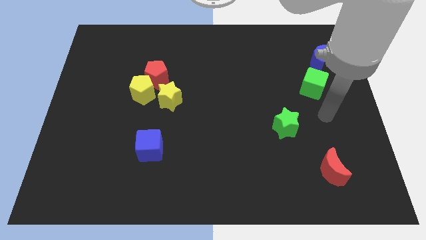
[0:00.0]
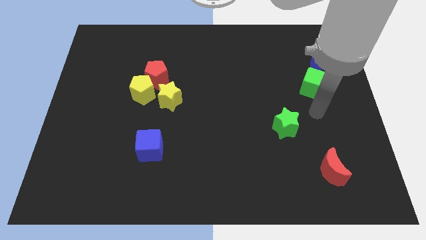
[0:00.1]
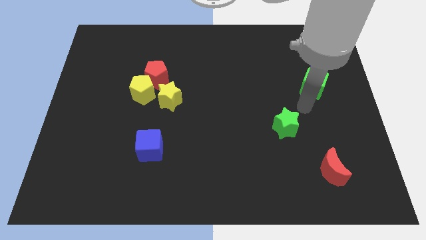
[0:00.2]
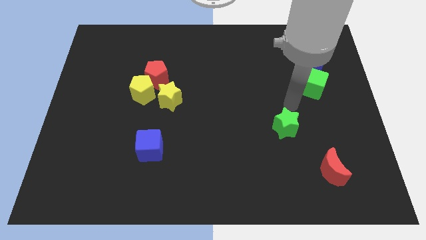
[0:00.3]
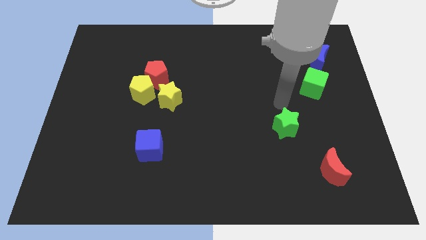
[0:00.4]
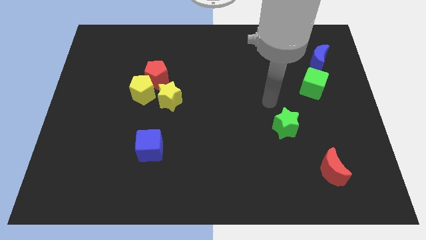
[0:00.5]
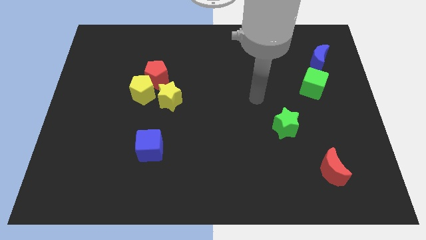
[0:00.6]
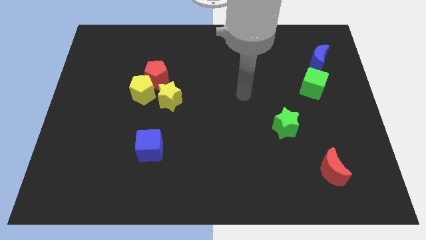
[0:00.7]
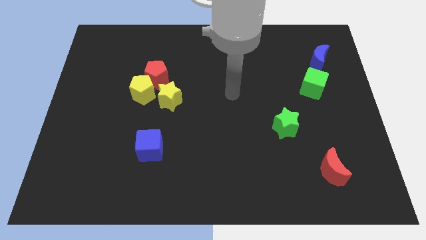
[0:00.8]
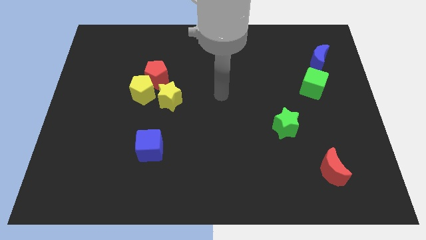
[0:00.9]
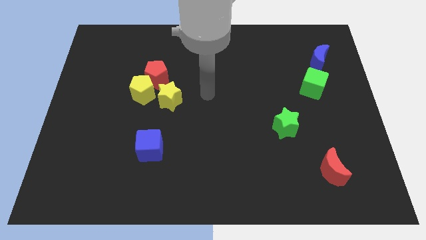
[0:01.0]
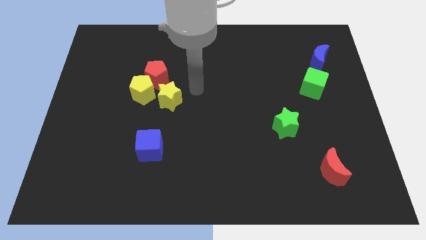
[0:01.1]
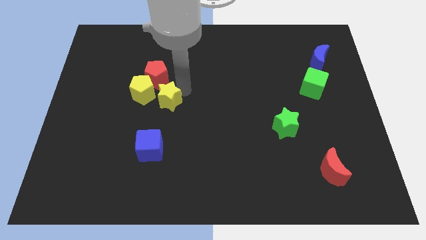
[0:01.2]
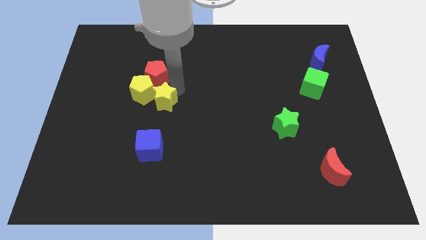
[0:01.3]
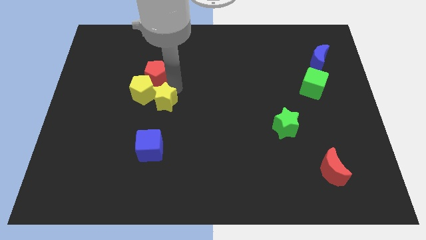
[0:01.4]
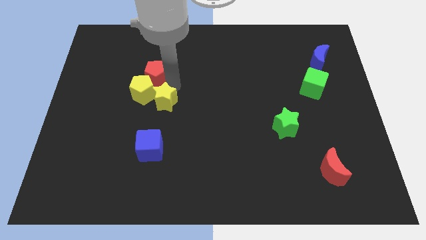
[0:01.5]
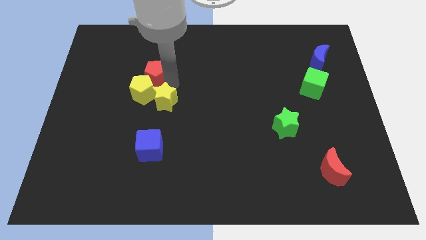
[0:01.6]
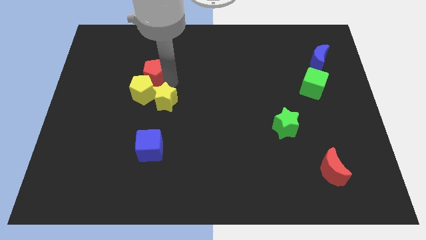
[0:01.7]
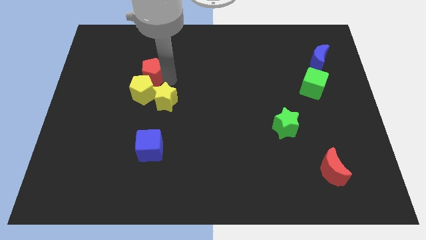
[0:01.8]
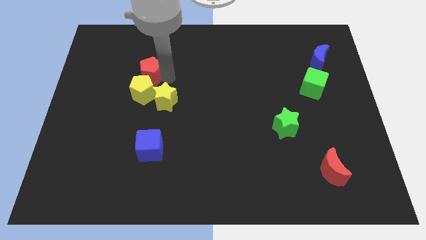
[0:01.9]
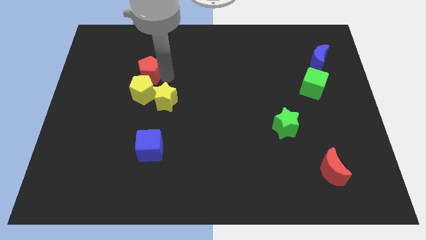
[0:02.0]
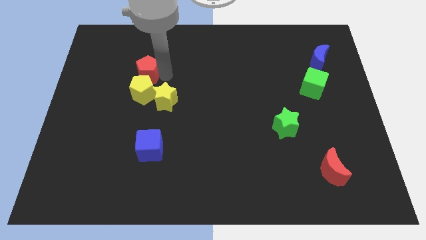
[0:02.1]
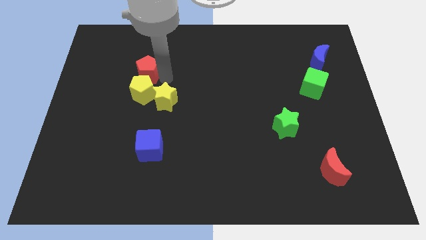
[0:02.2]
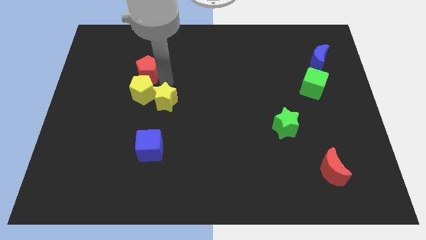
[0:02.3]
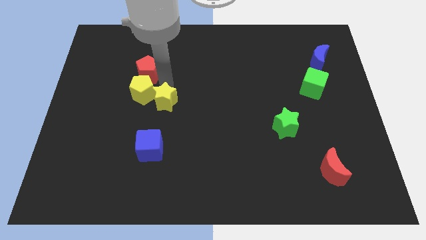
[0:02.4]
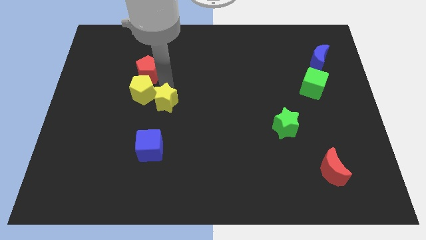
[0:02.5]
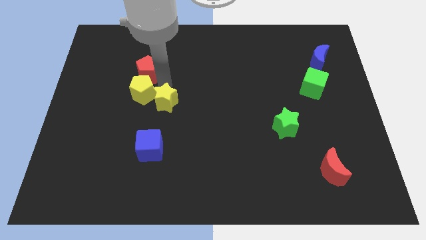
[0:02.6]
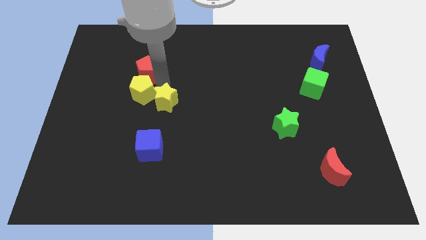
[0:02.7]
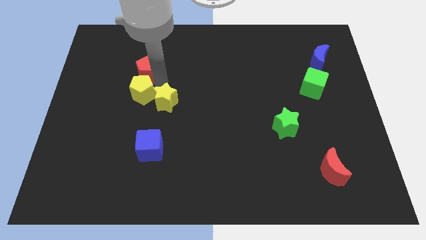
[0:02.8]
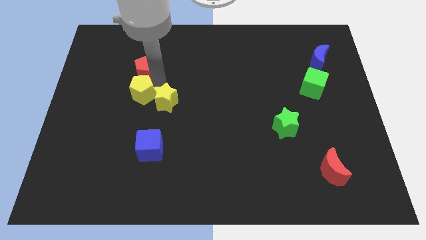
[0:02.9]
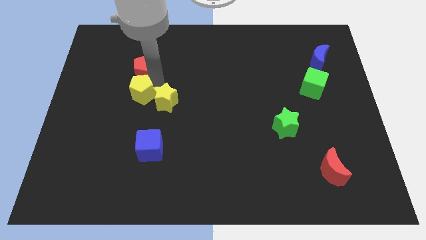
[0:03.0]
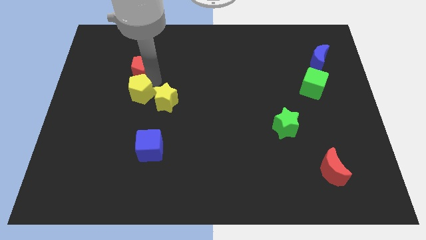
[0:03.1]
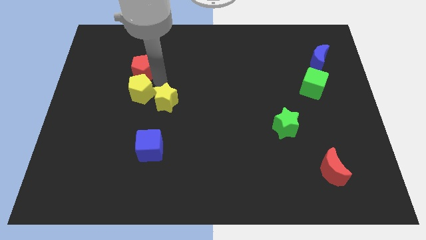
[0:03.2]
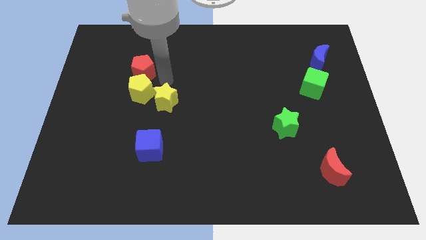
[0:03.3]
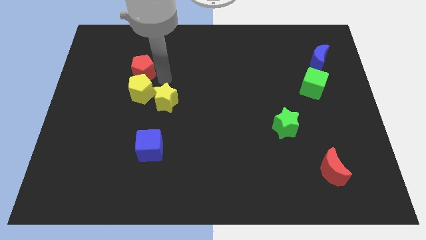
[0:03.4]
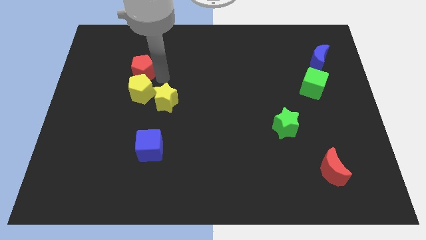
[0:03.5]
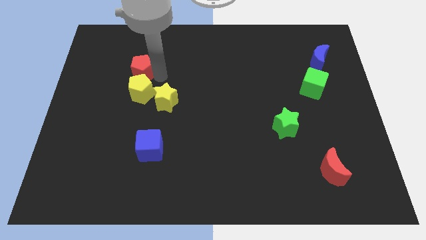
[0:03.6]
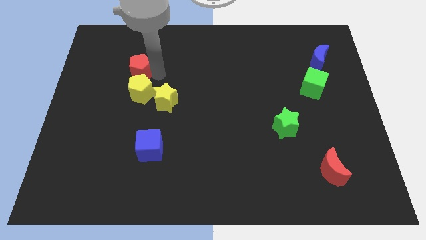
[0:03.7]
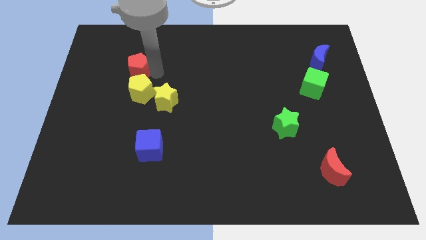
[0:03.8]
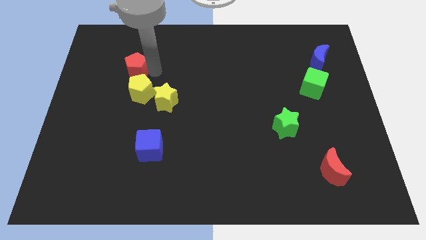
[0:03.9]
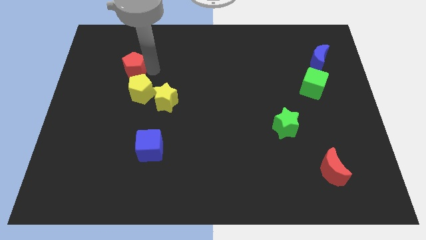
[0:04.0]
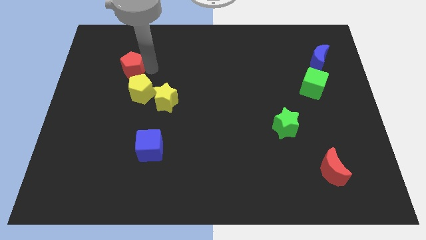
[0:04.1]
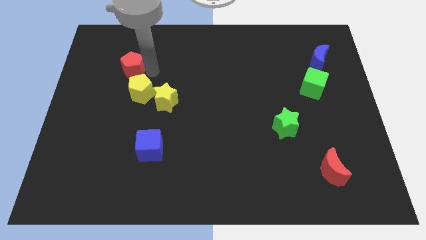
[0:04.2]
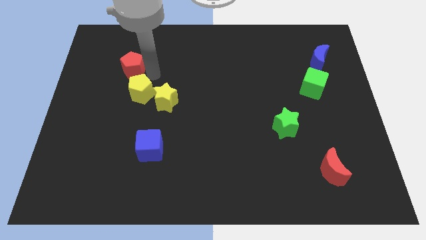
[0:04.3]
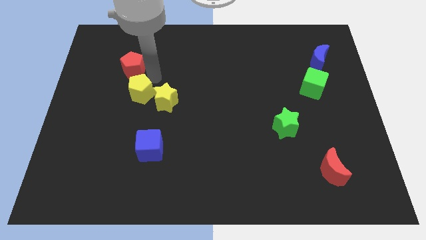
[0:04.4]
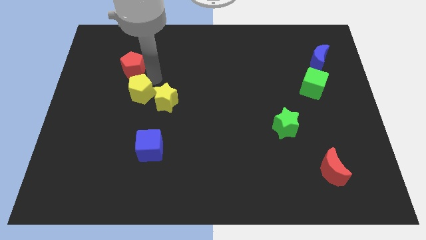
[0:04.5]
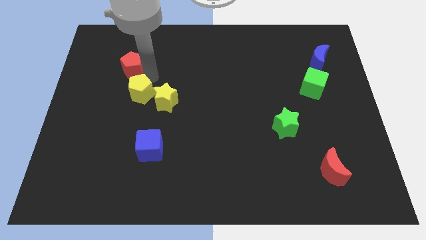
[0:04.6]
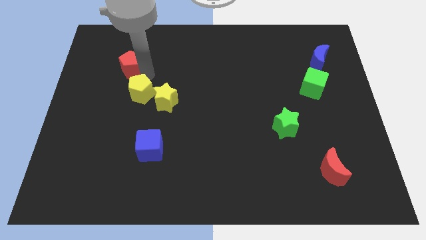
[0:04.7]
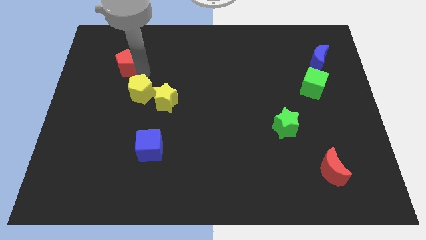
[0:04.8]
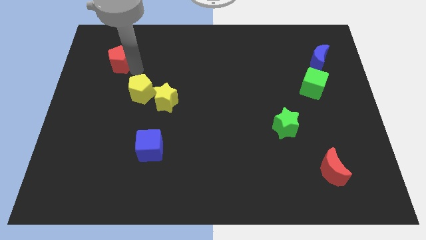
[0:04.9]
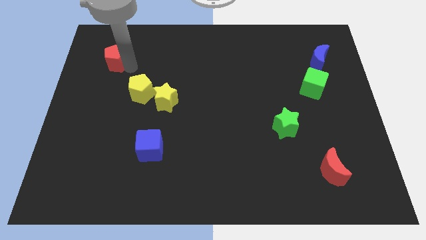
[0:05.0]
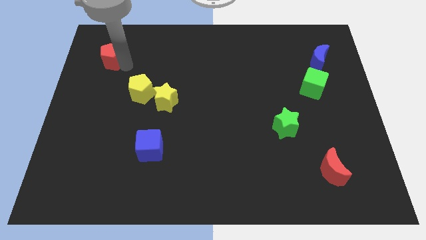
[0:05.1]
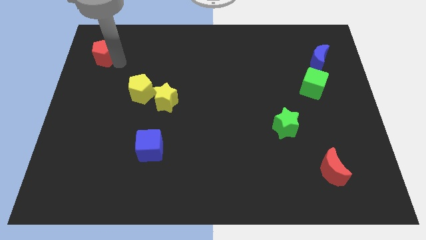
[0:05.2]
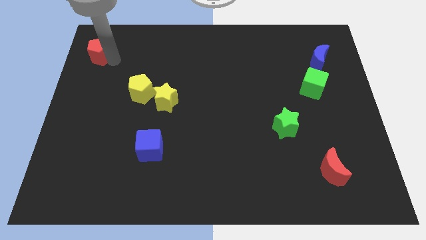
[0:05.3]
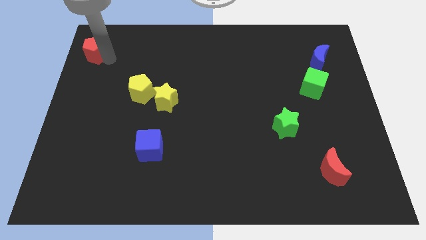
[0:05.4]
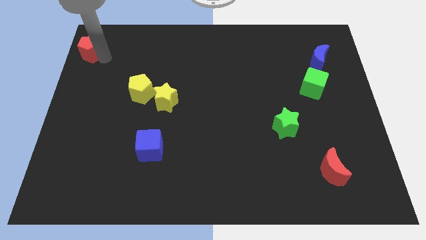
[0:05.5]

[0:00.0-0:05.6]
move the red pentagon to the top left corner
